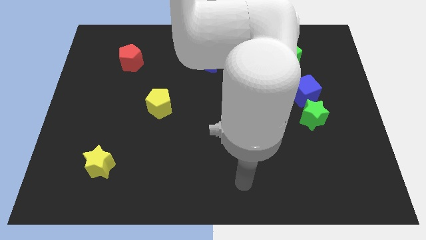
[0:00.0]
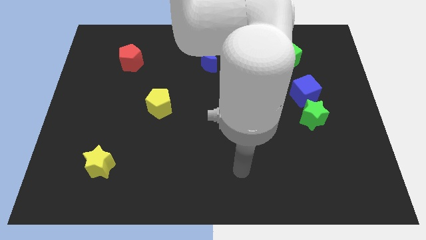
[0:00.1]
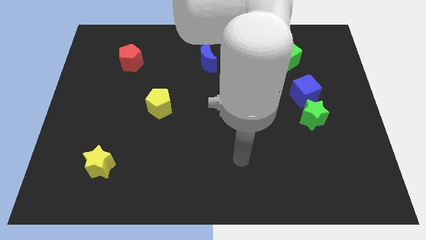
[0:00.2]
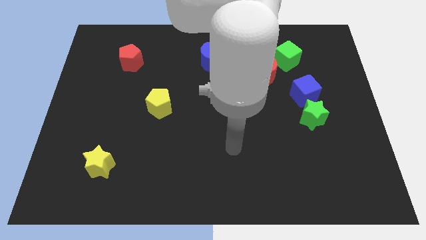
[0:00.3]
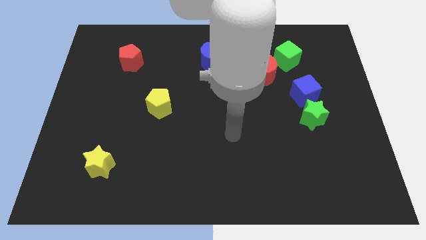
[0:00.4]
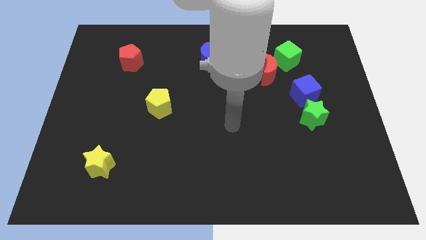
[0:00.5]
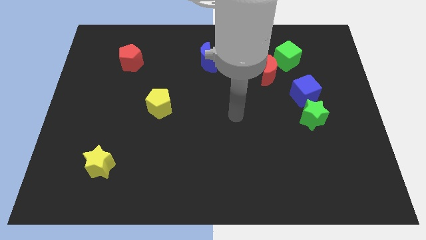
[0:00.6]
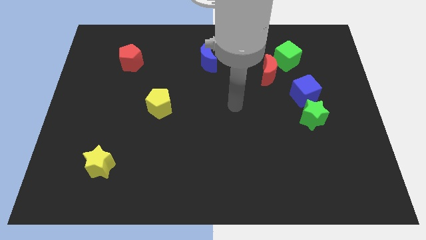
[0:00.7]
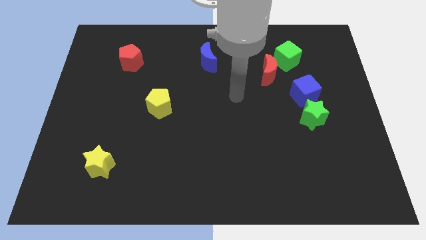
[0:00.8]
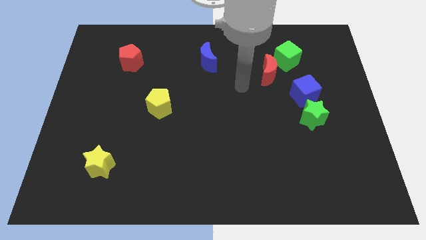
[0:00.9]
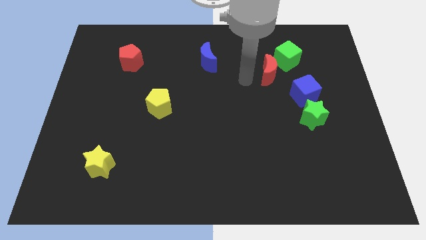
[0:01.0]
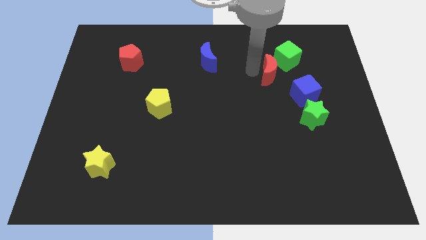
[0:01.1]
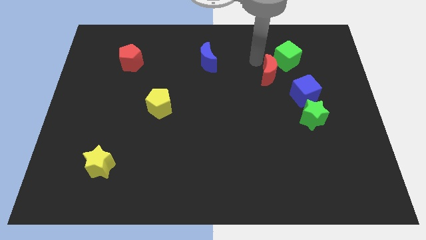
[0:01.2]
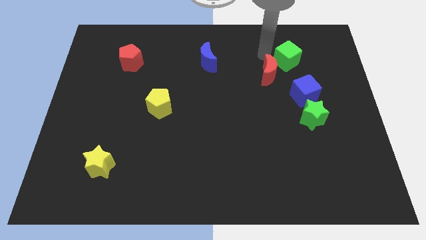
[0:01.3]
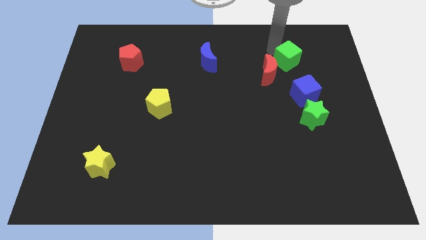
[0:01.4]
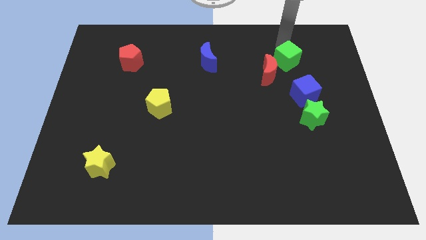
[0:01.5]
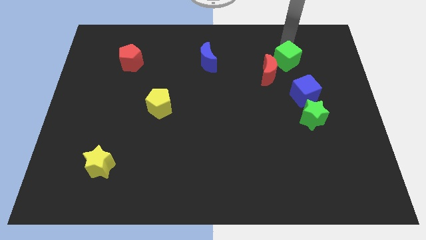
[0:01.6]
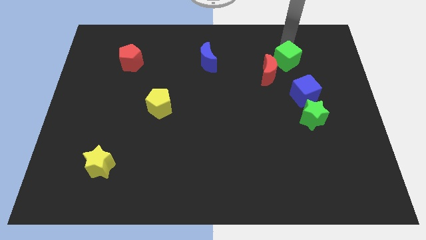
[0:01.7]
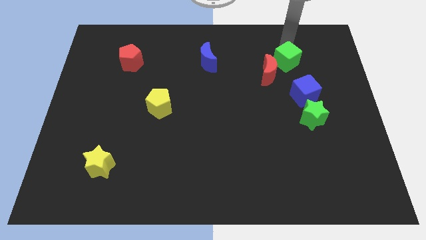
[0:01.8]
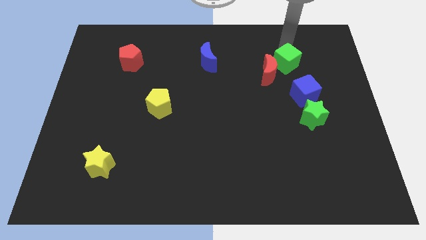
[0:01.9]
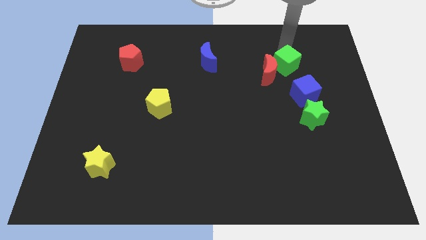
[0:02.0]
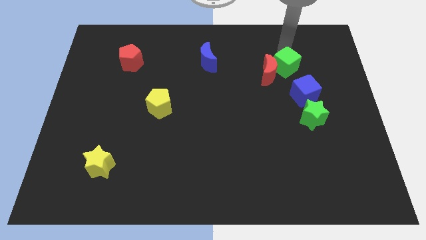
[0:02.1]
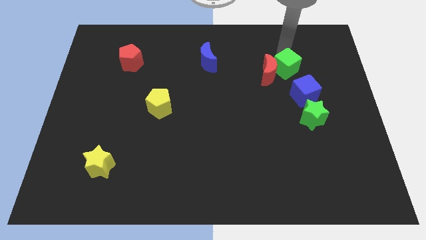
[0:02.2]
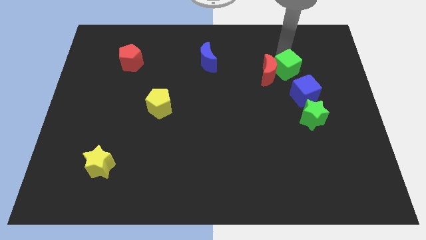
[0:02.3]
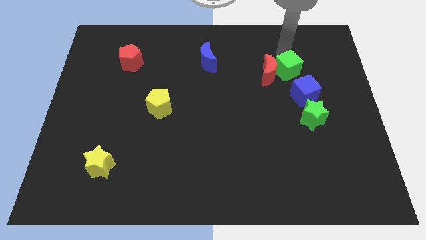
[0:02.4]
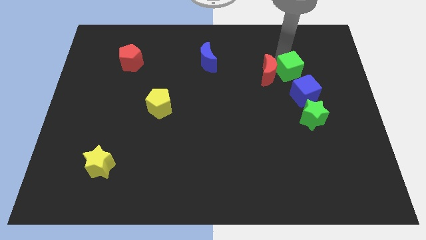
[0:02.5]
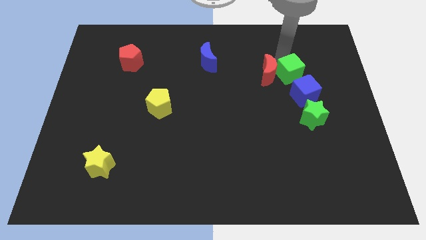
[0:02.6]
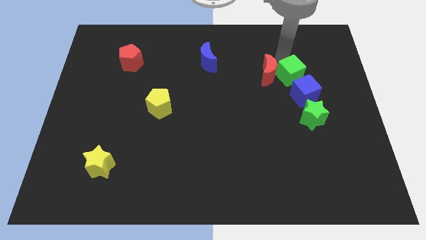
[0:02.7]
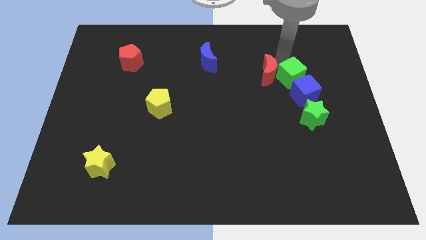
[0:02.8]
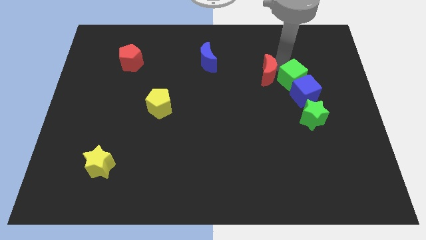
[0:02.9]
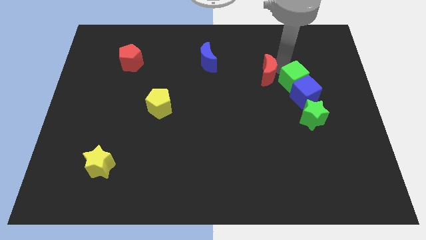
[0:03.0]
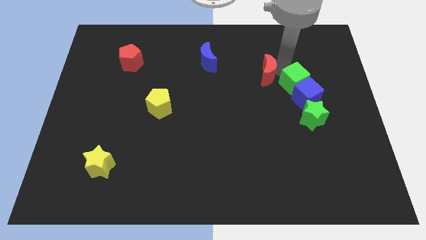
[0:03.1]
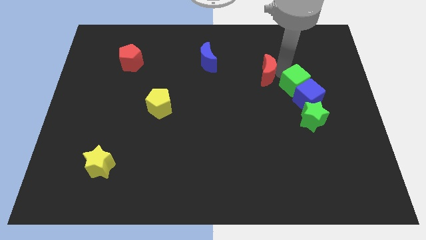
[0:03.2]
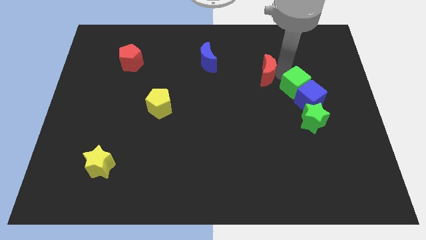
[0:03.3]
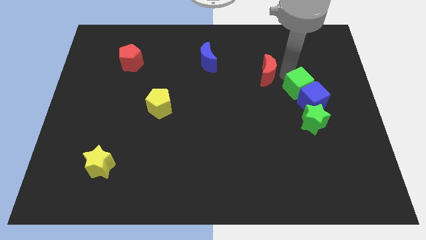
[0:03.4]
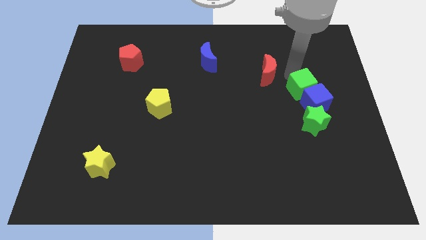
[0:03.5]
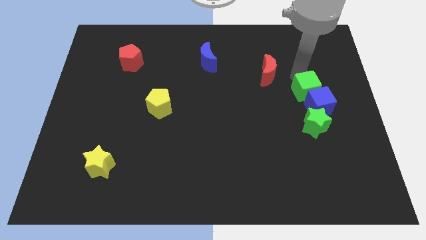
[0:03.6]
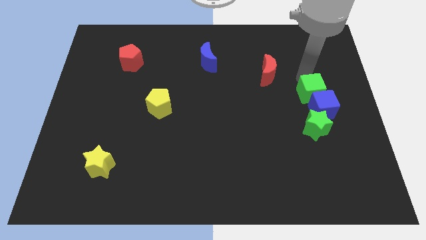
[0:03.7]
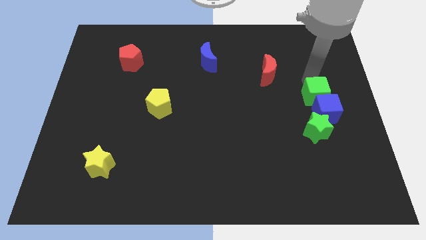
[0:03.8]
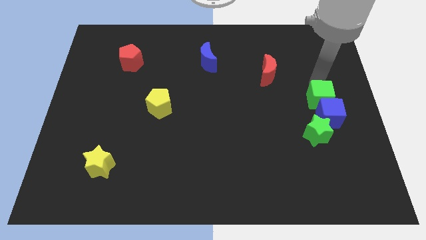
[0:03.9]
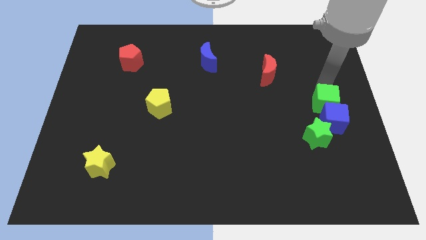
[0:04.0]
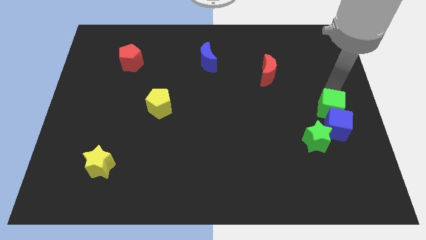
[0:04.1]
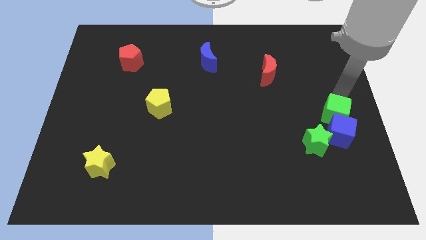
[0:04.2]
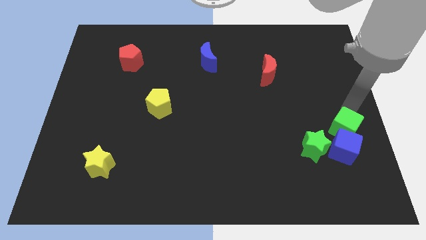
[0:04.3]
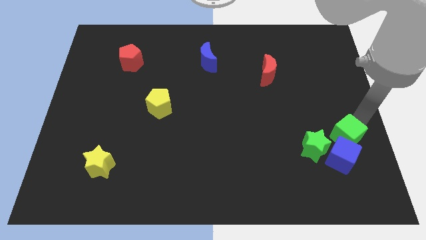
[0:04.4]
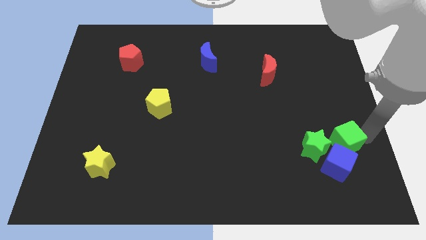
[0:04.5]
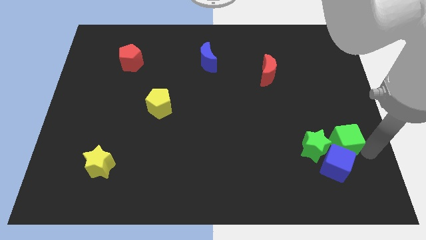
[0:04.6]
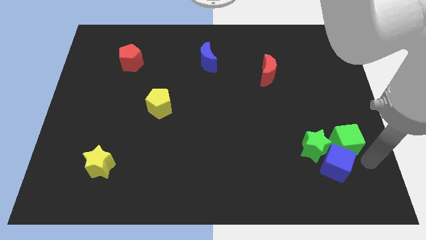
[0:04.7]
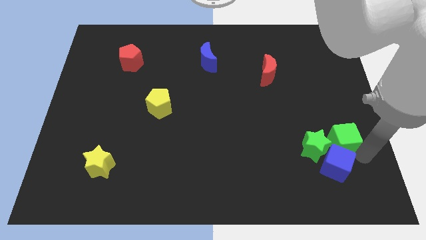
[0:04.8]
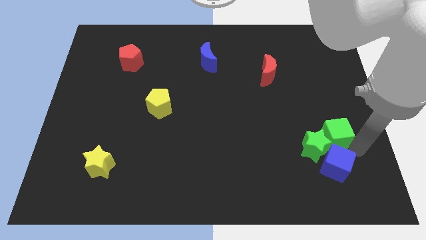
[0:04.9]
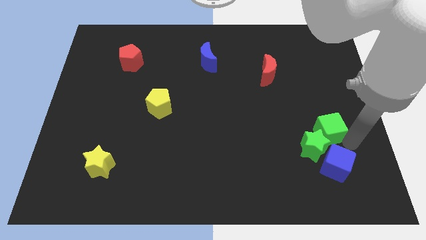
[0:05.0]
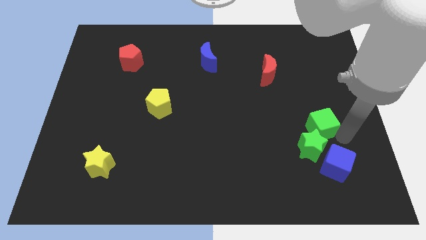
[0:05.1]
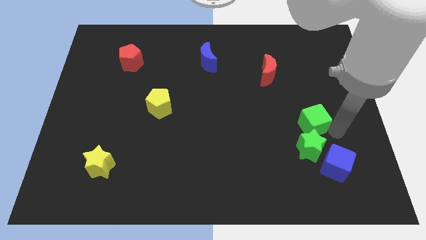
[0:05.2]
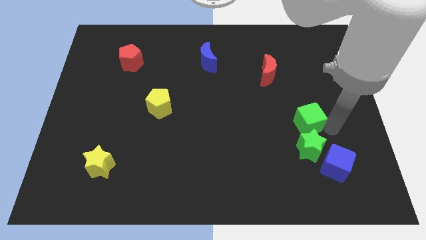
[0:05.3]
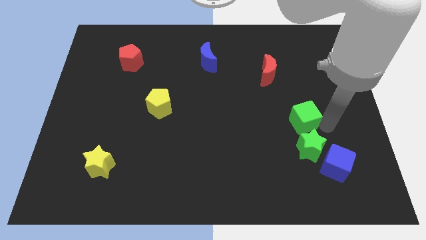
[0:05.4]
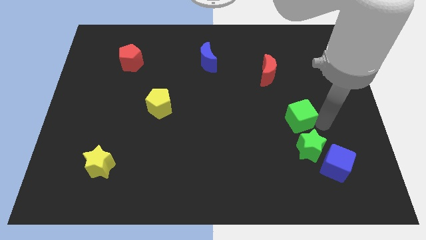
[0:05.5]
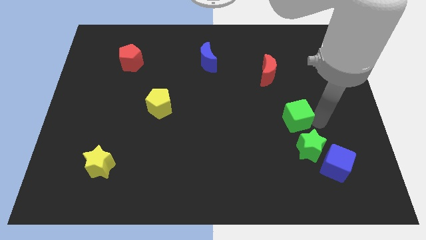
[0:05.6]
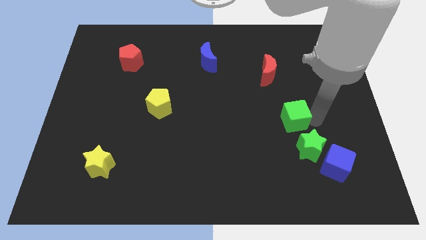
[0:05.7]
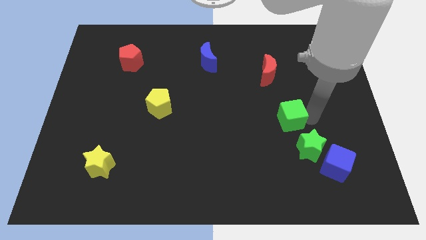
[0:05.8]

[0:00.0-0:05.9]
put the green cube to the bottom side of the red moon

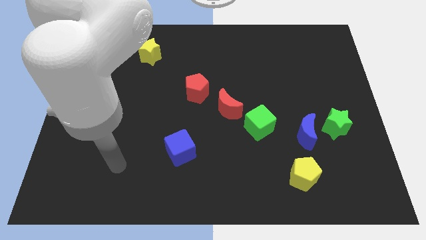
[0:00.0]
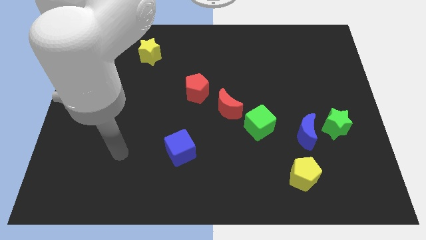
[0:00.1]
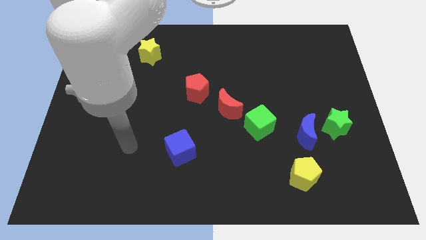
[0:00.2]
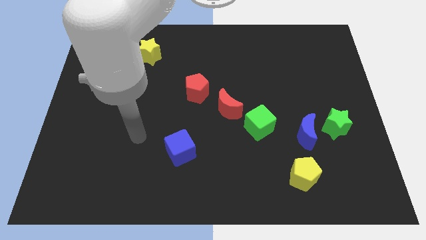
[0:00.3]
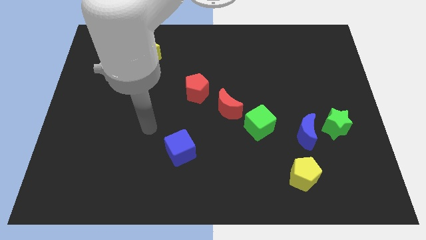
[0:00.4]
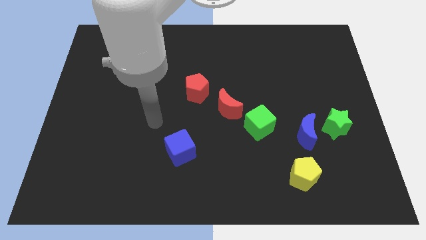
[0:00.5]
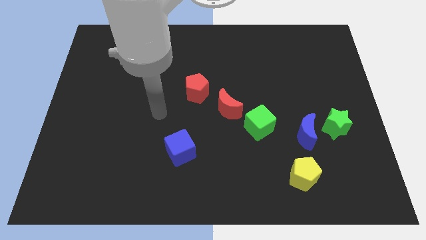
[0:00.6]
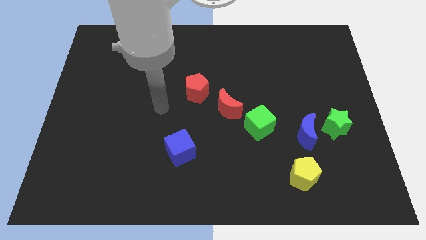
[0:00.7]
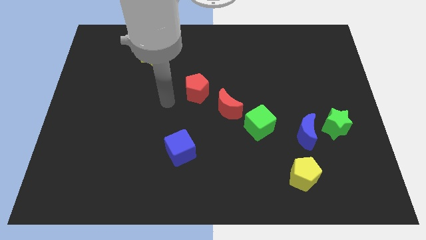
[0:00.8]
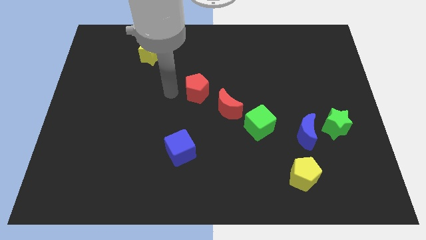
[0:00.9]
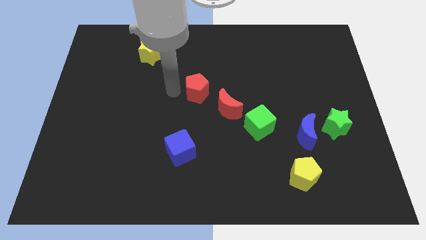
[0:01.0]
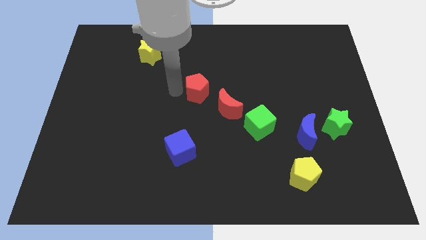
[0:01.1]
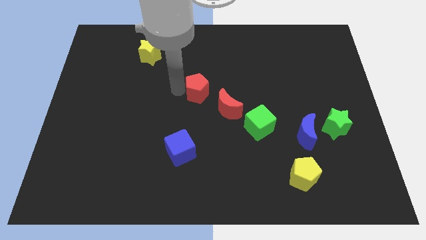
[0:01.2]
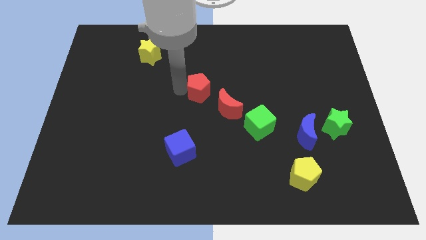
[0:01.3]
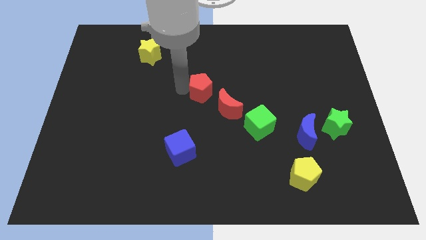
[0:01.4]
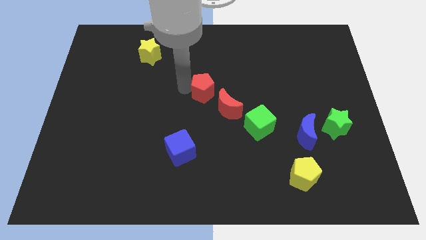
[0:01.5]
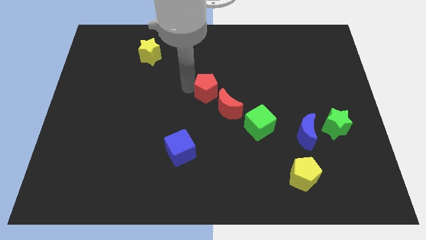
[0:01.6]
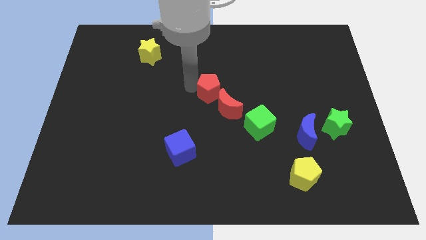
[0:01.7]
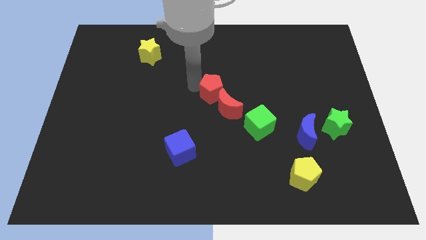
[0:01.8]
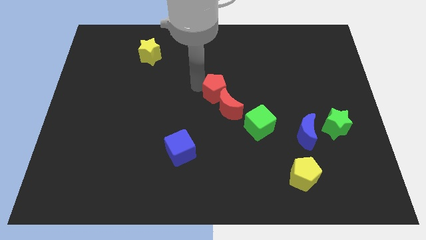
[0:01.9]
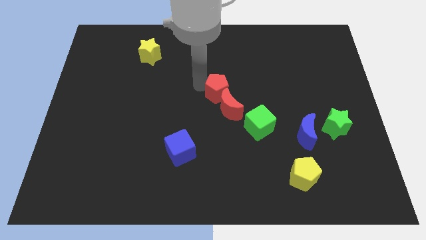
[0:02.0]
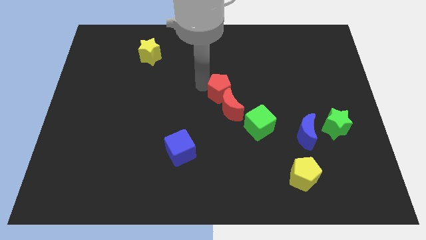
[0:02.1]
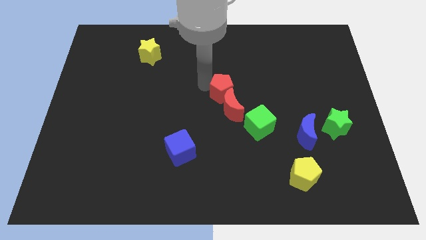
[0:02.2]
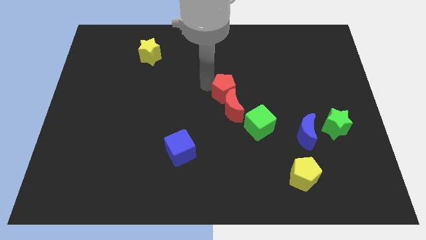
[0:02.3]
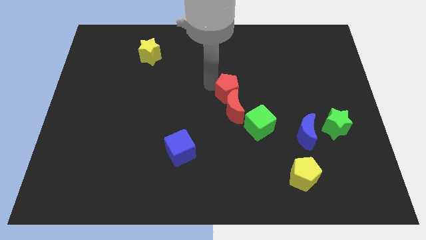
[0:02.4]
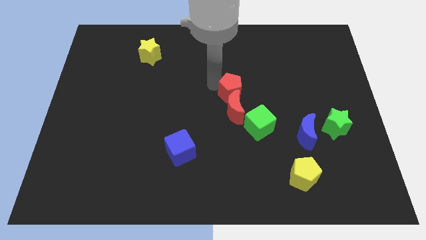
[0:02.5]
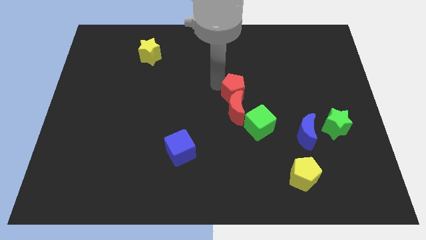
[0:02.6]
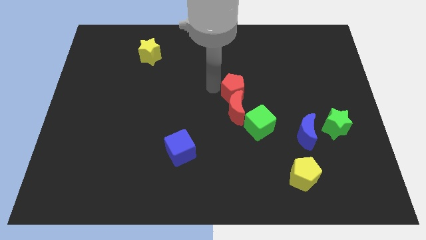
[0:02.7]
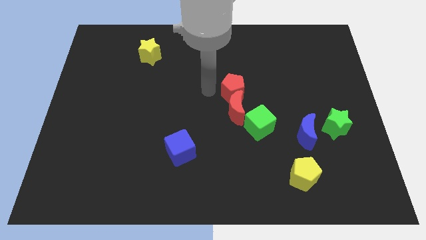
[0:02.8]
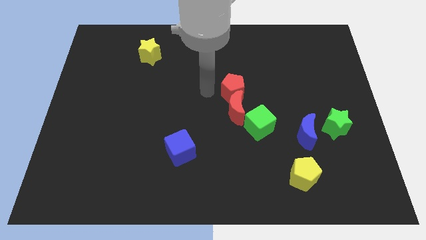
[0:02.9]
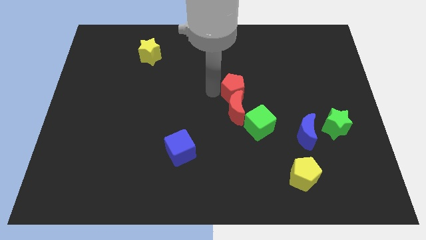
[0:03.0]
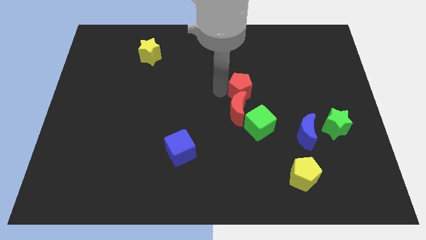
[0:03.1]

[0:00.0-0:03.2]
move the red pentagon to the top of the green cube
